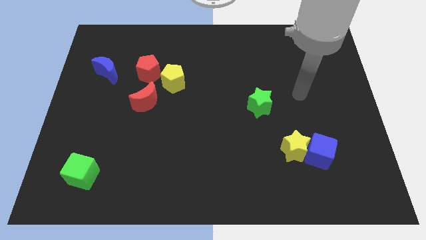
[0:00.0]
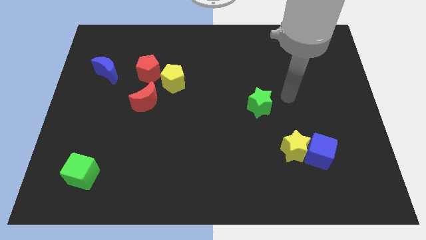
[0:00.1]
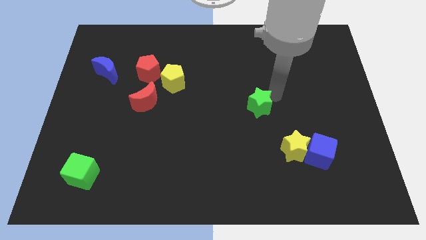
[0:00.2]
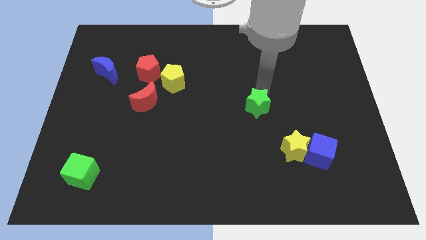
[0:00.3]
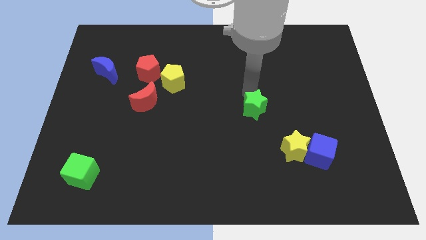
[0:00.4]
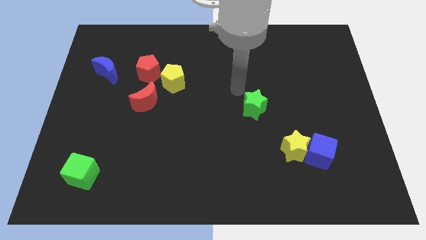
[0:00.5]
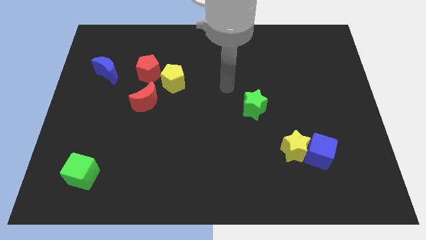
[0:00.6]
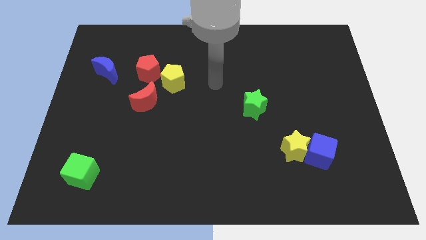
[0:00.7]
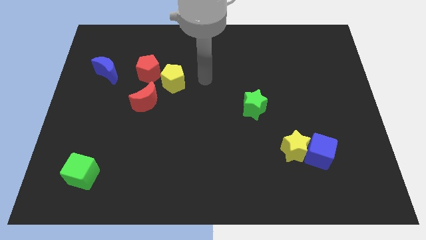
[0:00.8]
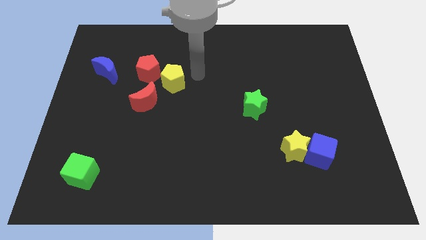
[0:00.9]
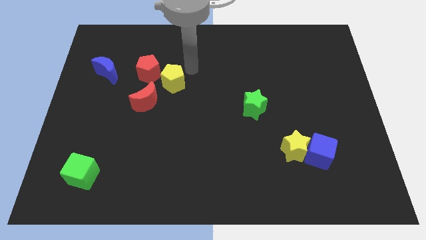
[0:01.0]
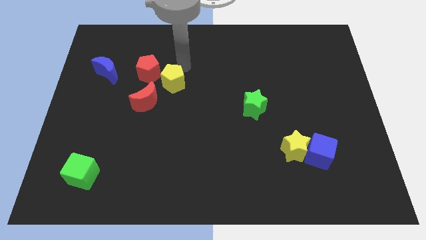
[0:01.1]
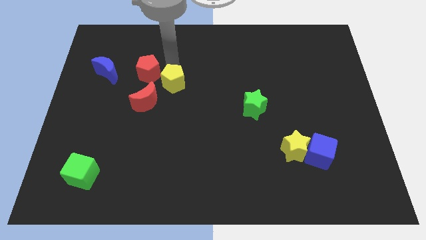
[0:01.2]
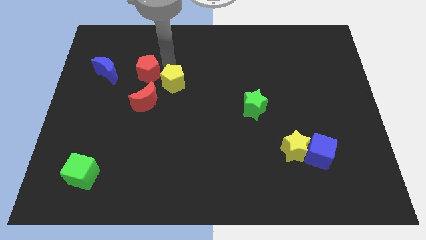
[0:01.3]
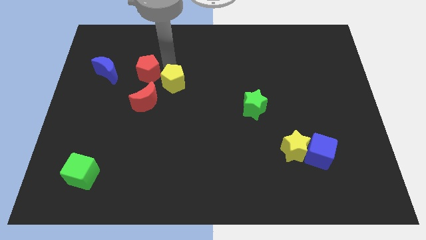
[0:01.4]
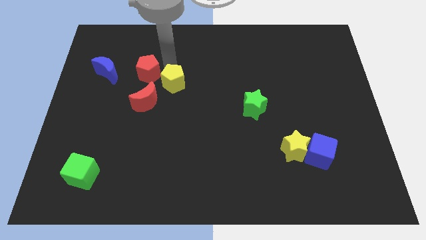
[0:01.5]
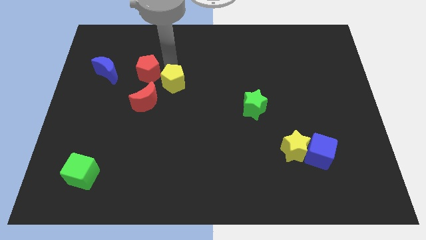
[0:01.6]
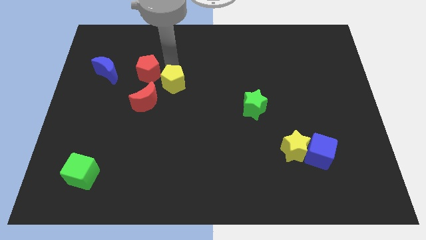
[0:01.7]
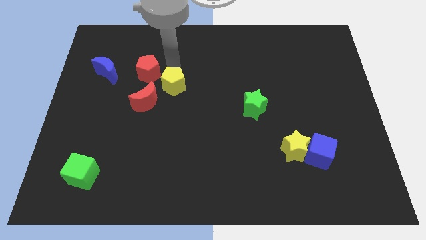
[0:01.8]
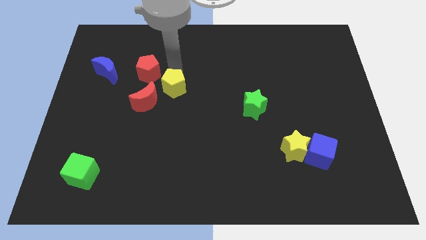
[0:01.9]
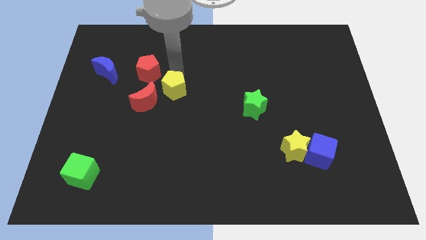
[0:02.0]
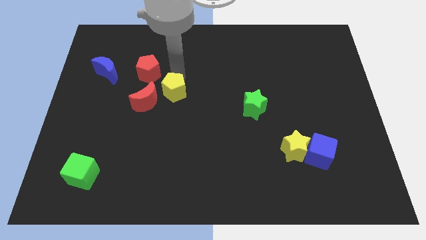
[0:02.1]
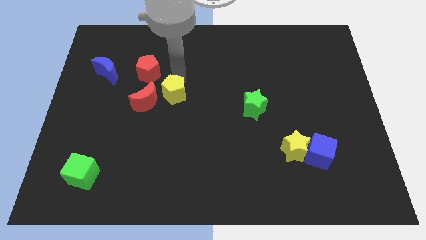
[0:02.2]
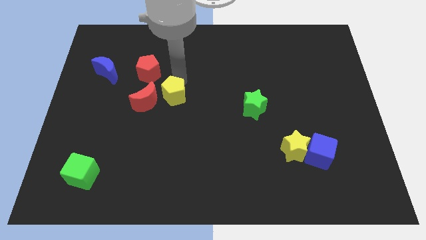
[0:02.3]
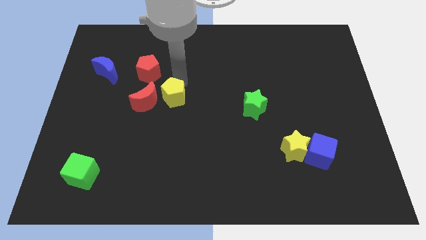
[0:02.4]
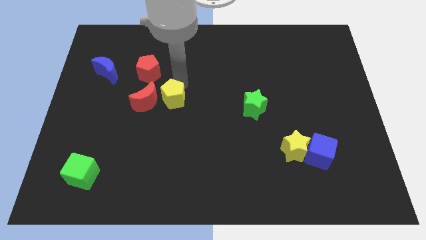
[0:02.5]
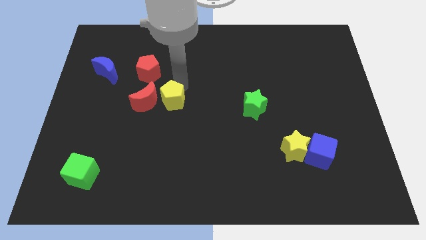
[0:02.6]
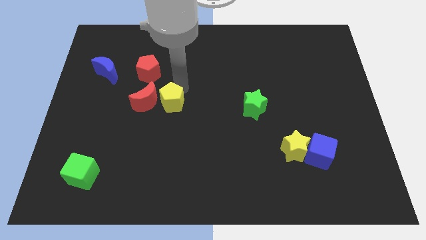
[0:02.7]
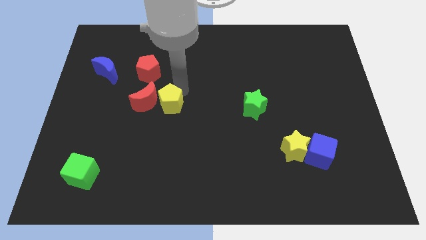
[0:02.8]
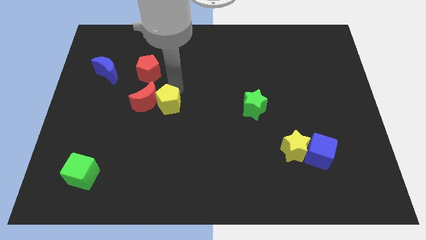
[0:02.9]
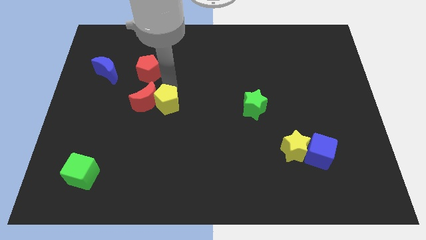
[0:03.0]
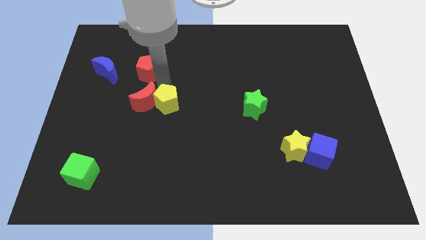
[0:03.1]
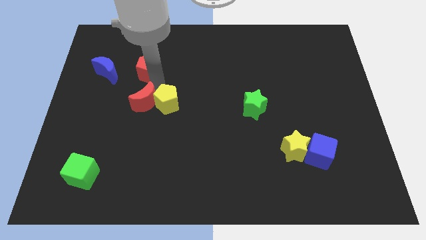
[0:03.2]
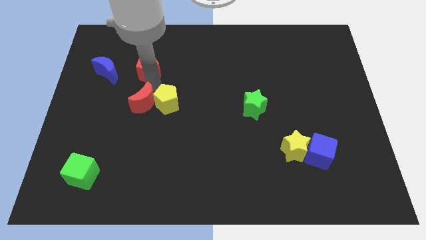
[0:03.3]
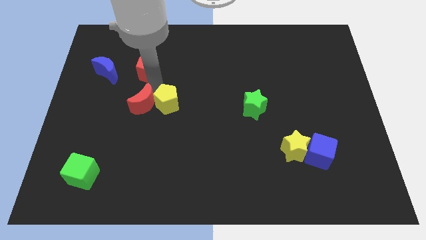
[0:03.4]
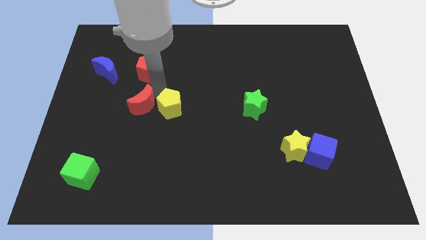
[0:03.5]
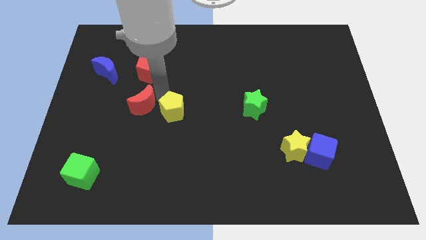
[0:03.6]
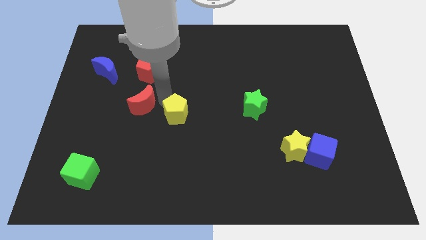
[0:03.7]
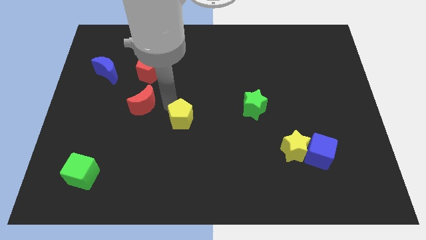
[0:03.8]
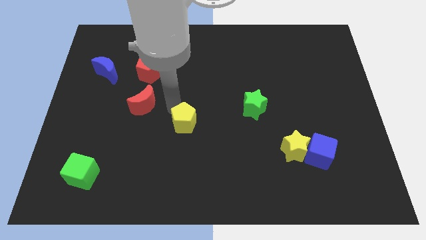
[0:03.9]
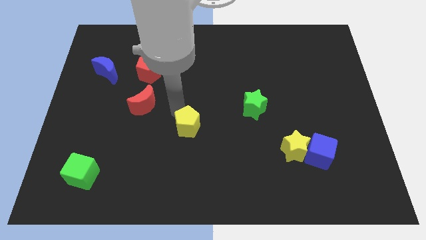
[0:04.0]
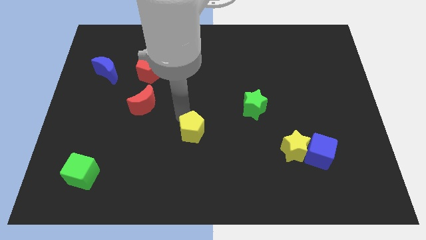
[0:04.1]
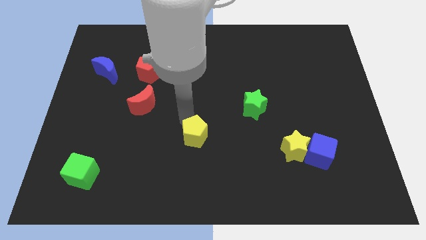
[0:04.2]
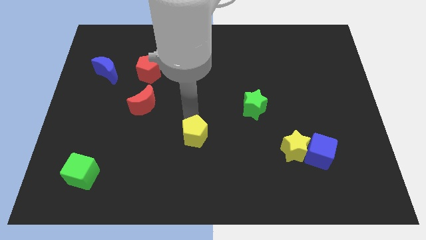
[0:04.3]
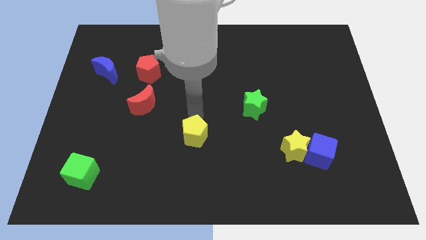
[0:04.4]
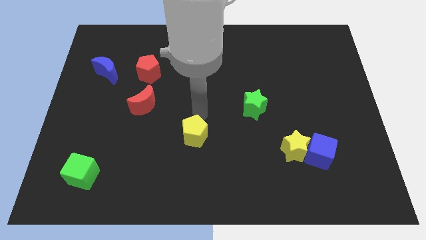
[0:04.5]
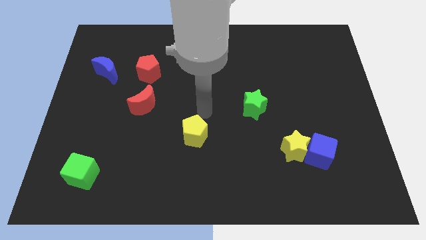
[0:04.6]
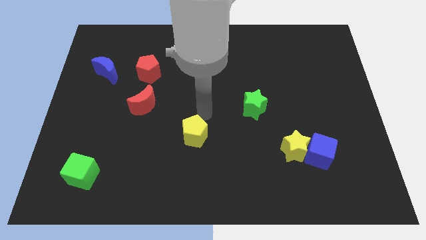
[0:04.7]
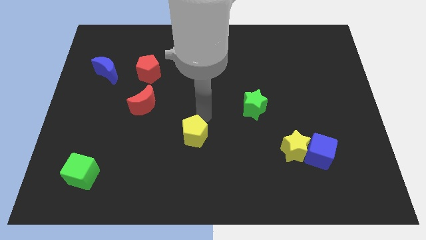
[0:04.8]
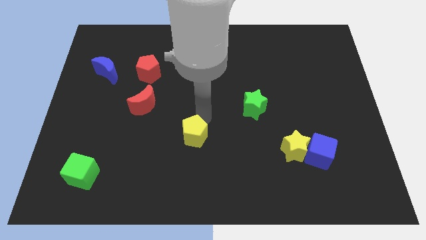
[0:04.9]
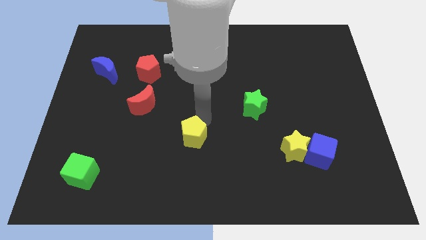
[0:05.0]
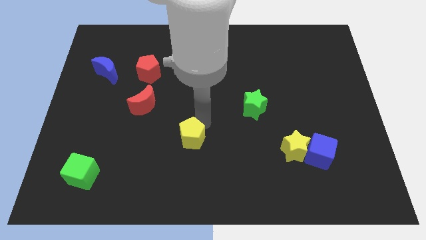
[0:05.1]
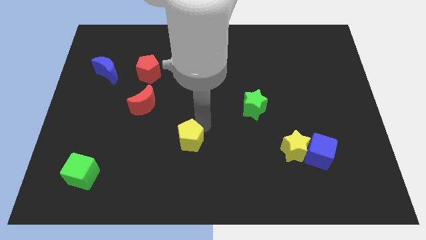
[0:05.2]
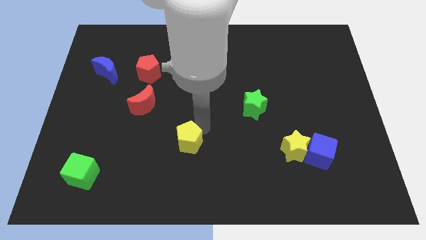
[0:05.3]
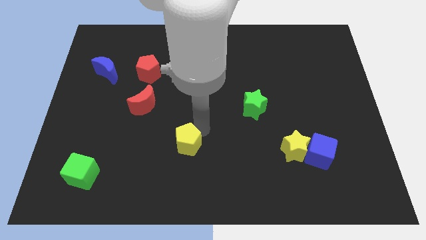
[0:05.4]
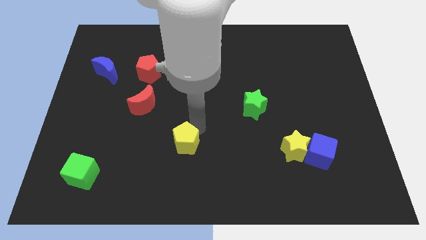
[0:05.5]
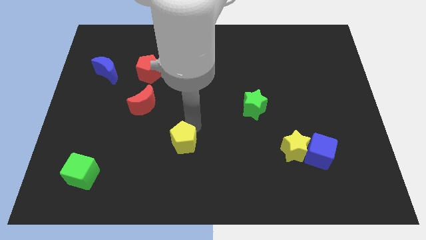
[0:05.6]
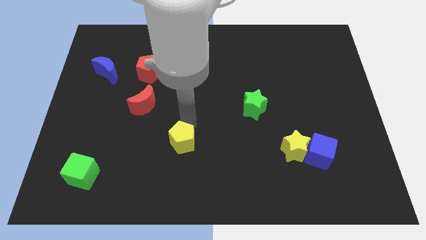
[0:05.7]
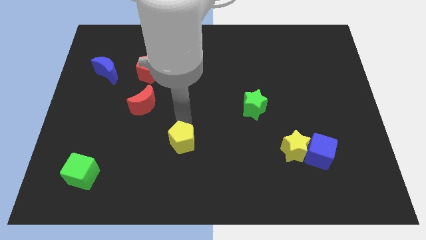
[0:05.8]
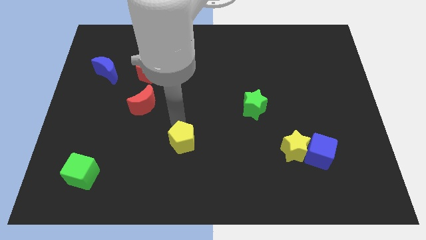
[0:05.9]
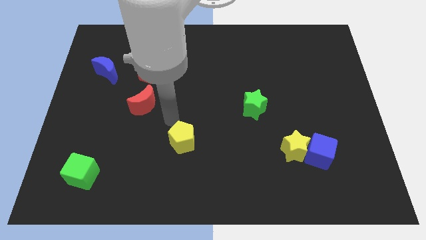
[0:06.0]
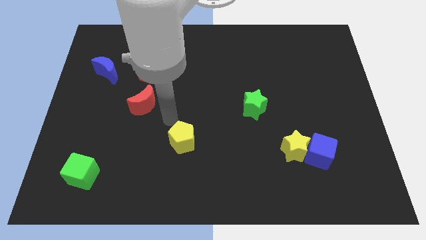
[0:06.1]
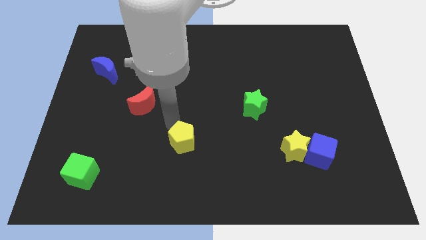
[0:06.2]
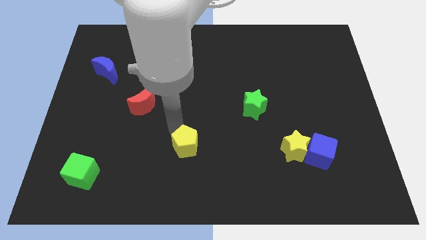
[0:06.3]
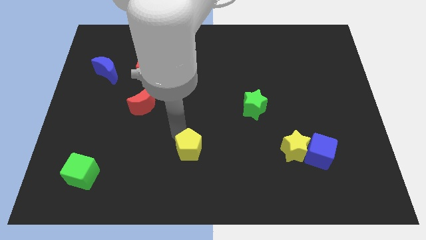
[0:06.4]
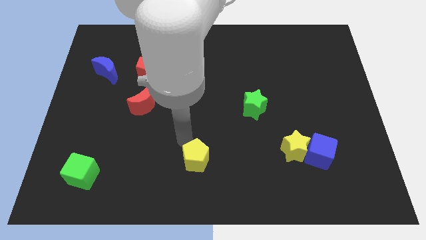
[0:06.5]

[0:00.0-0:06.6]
slide the yellow pentagon to the bottom
